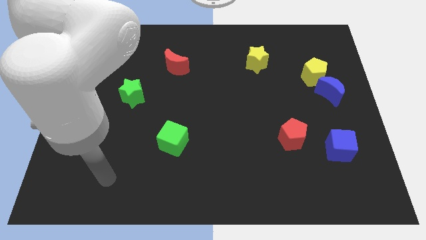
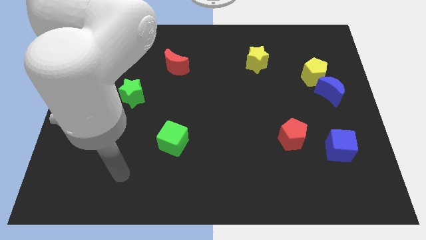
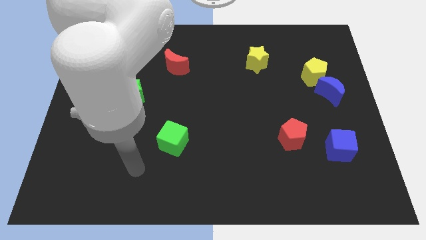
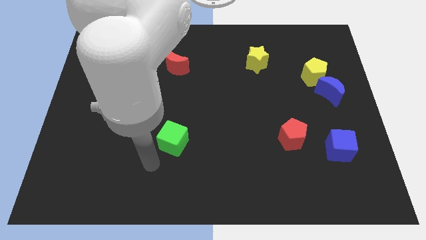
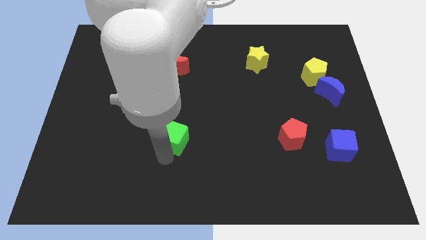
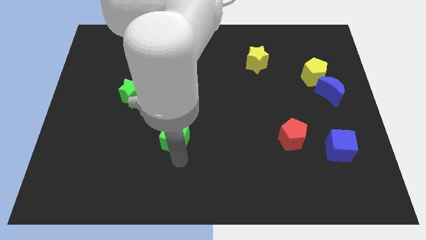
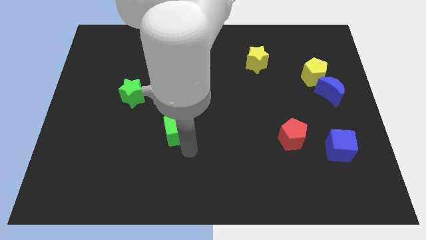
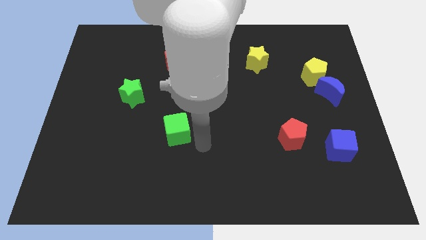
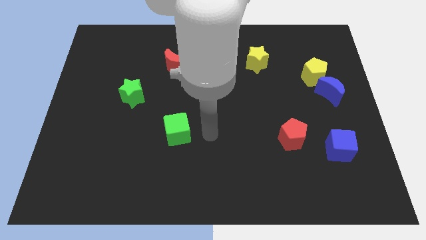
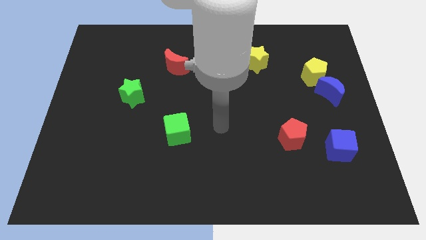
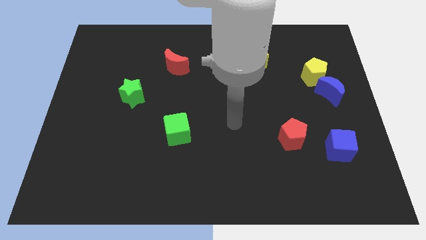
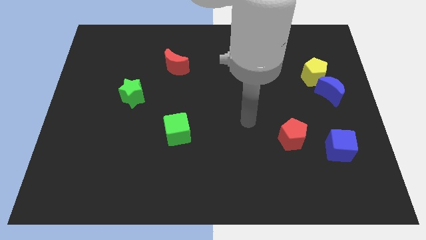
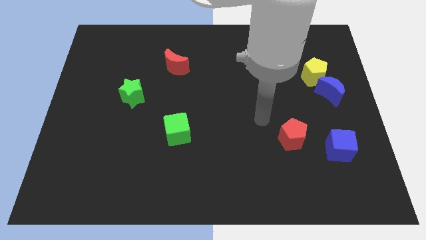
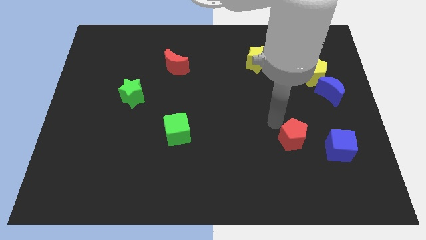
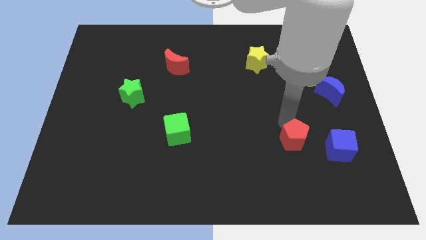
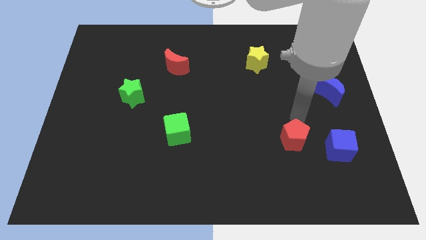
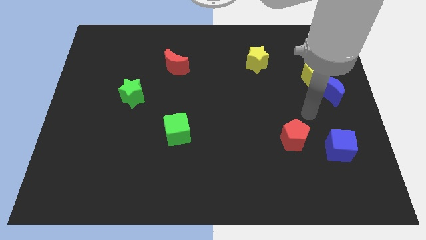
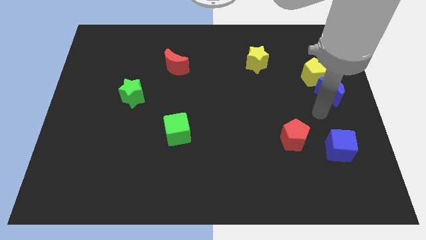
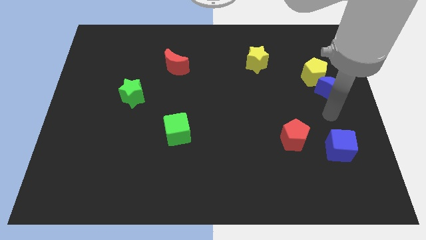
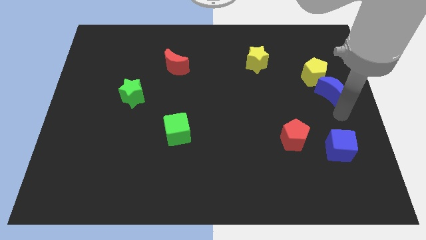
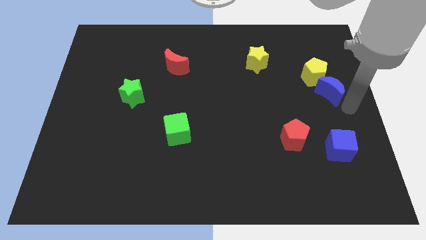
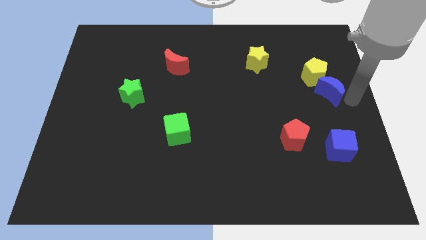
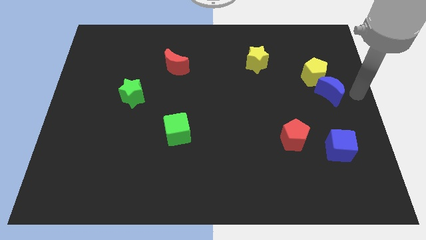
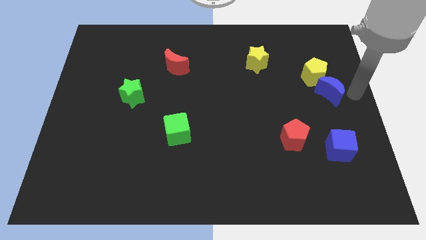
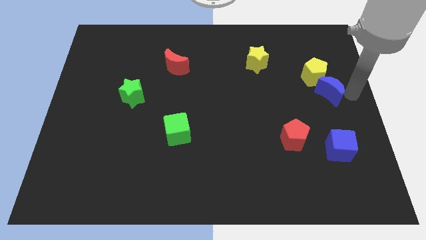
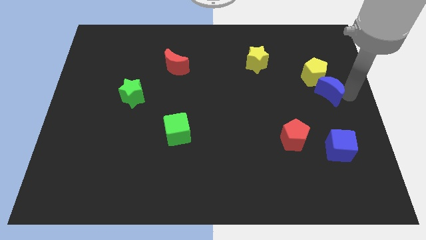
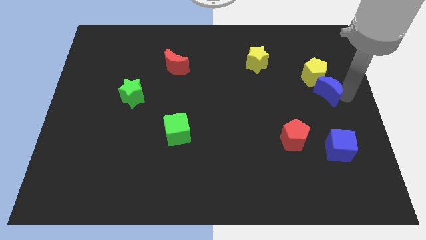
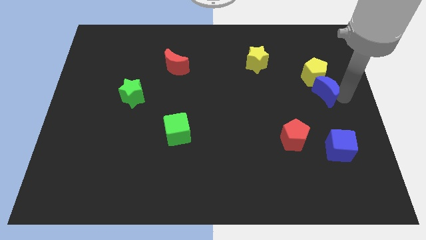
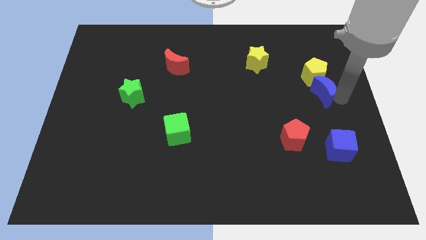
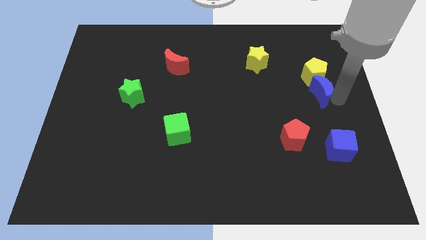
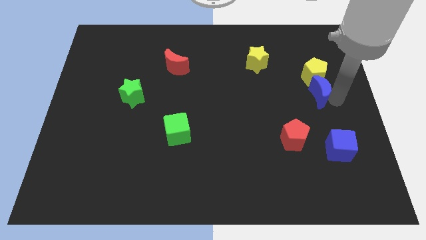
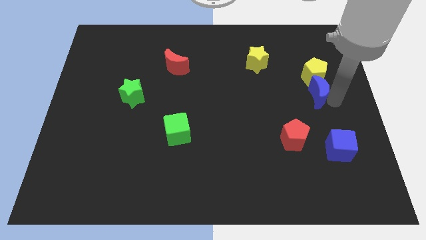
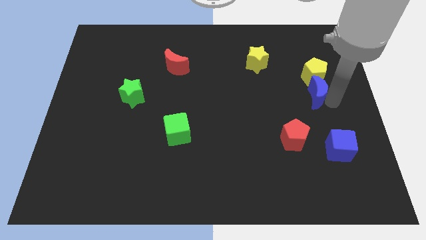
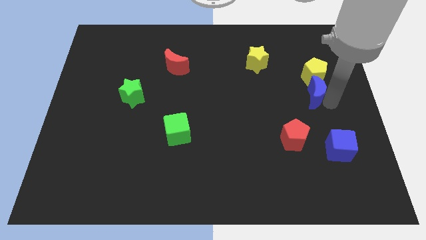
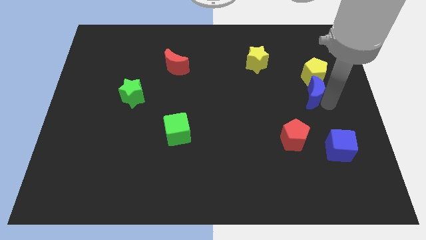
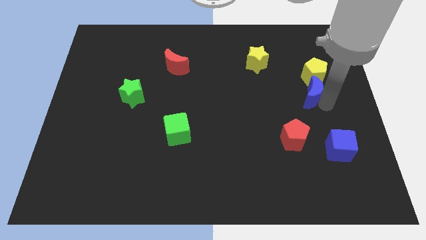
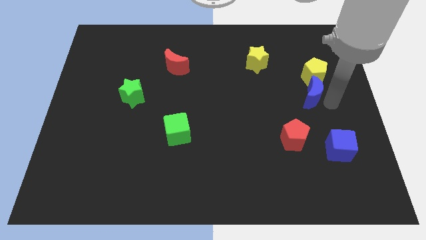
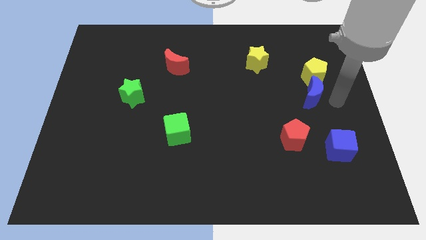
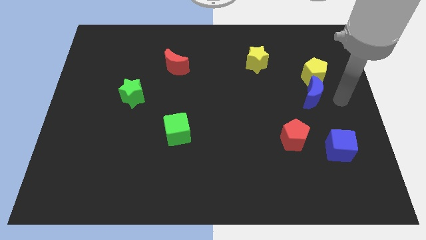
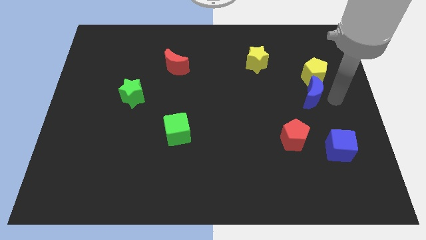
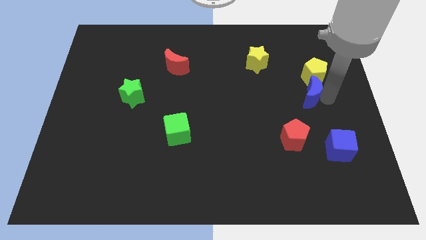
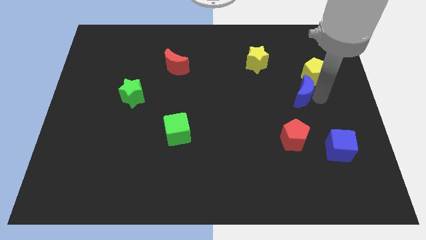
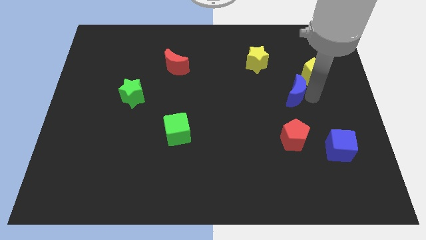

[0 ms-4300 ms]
slightly slide the blue moon left

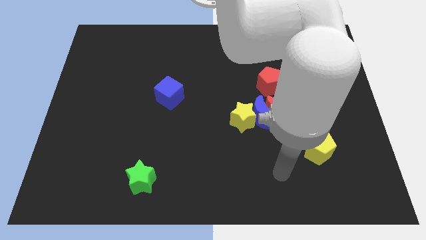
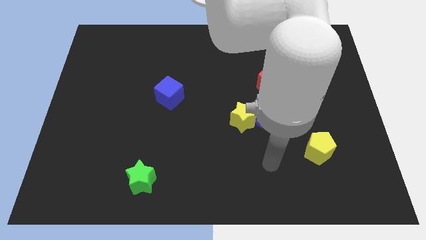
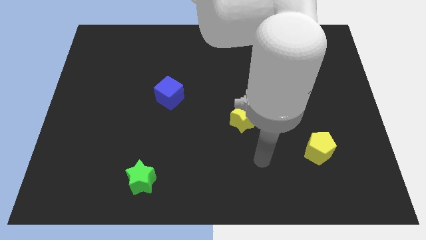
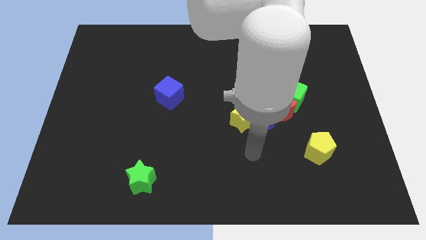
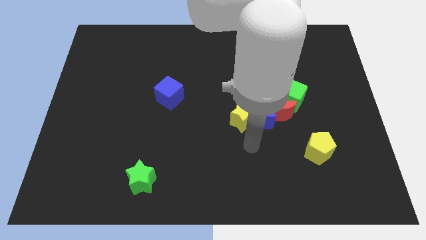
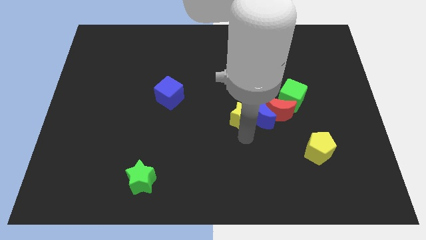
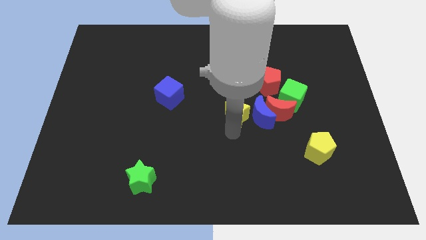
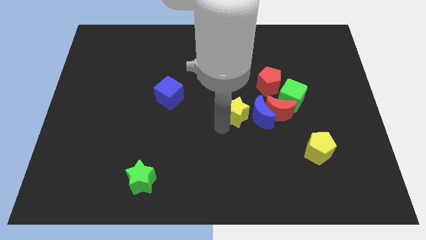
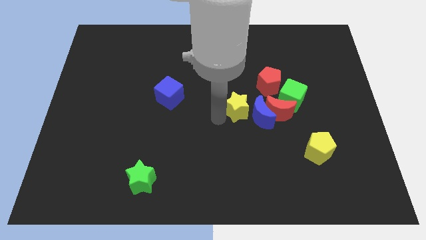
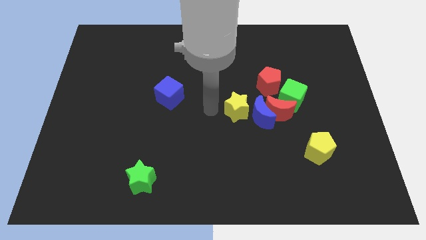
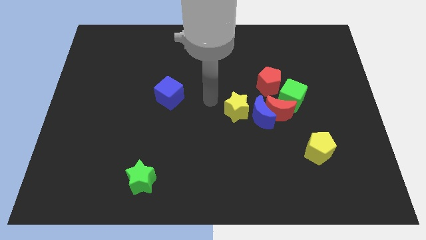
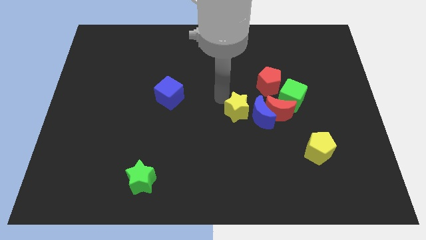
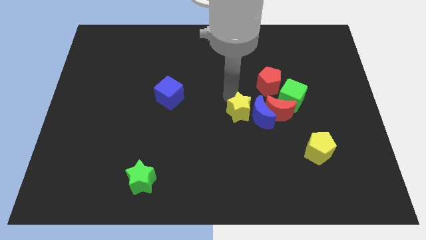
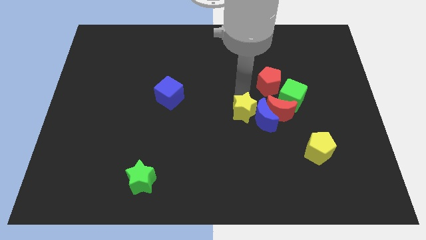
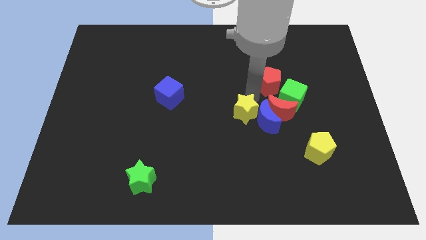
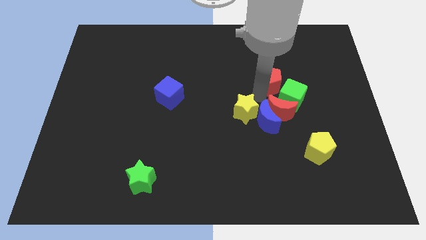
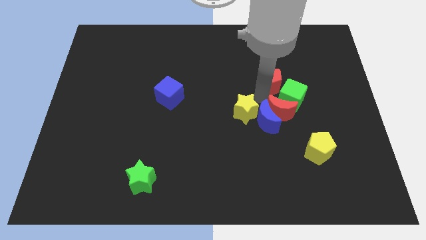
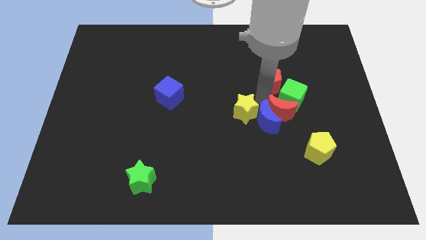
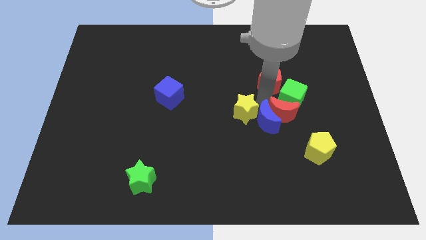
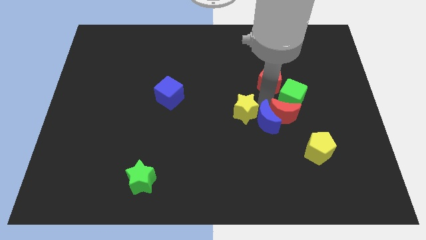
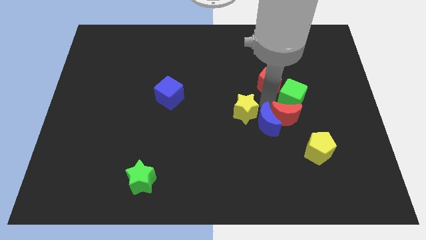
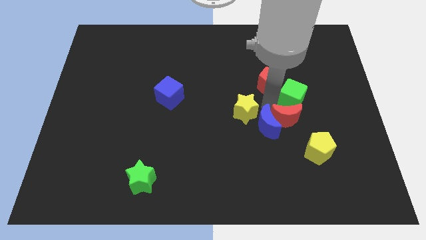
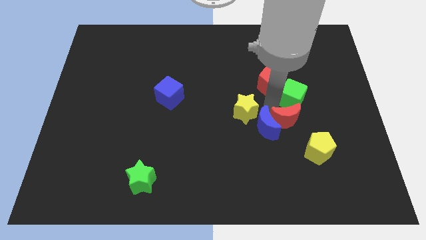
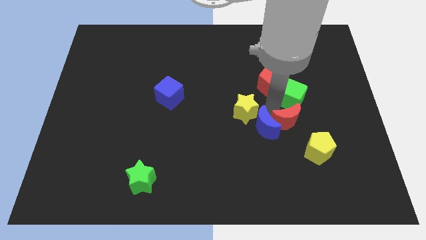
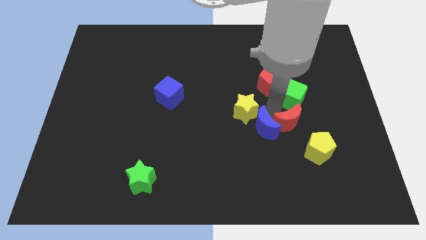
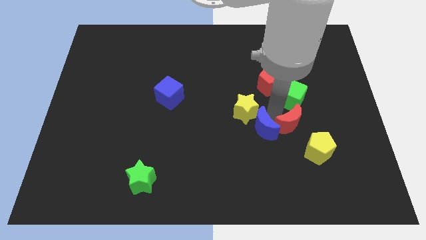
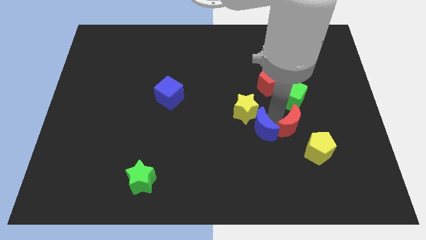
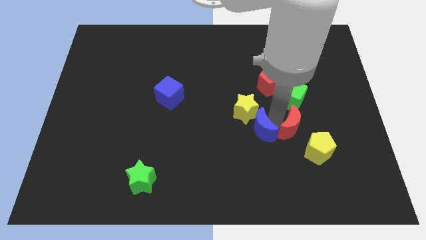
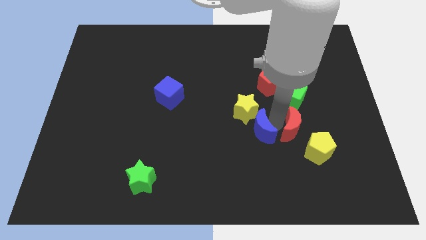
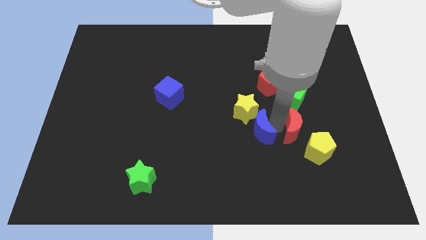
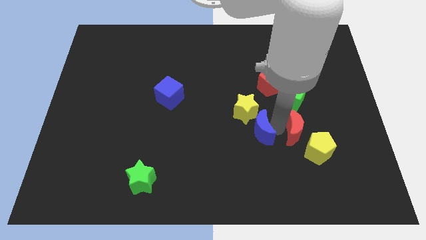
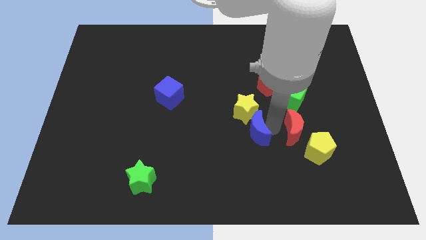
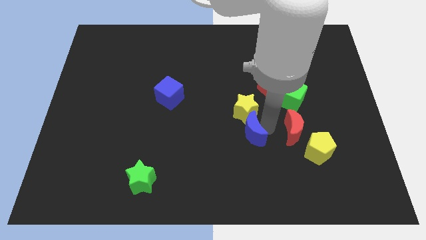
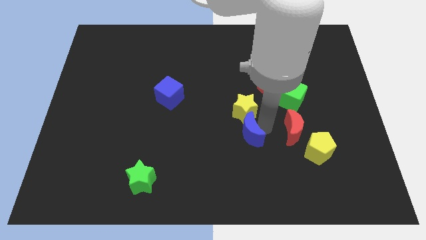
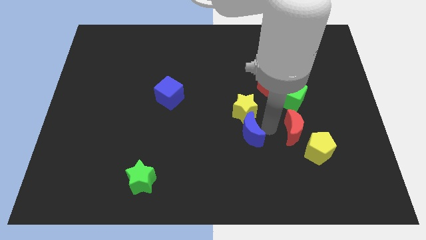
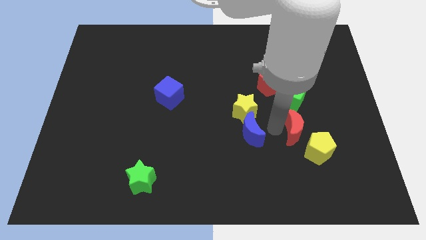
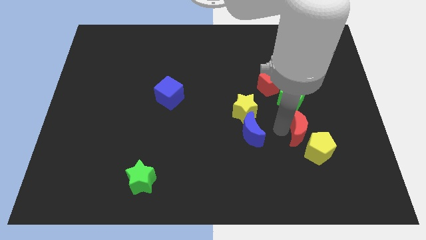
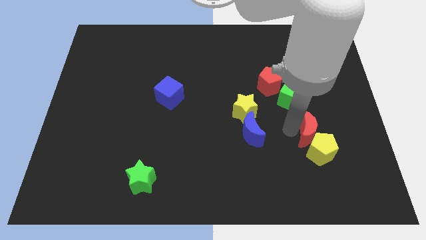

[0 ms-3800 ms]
slide the red moon diagonally down and right slightly

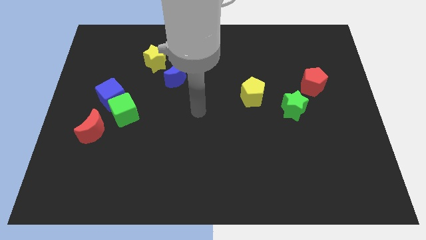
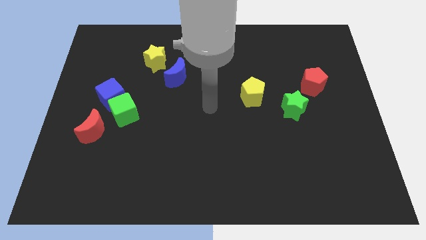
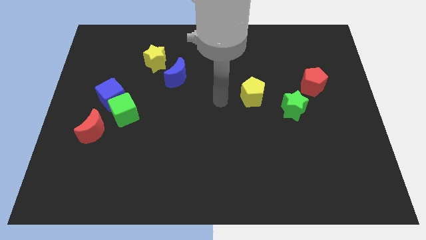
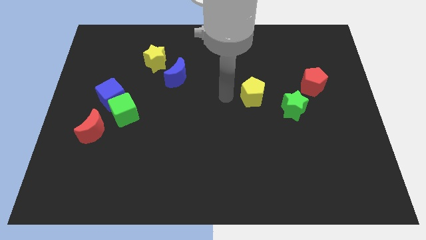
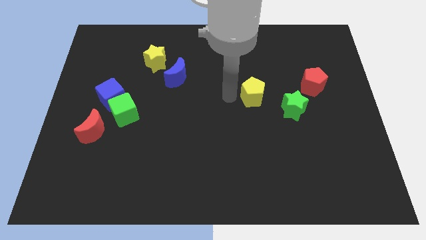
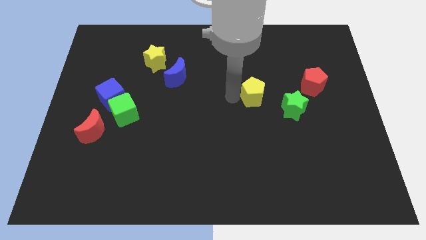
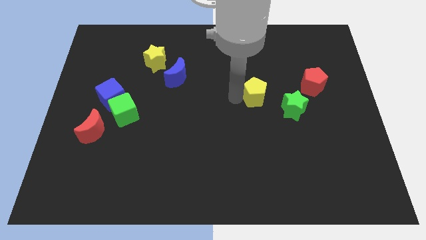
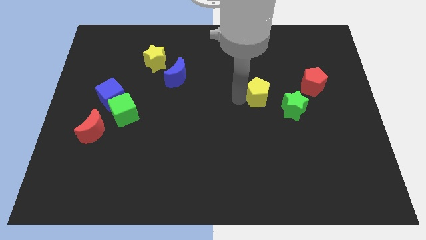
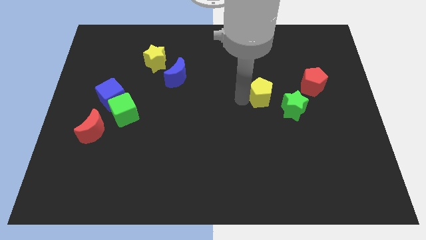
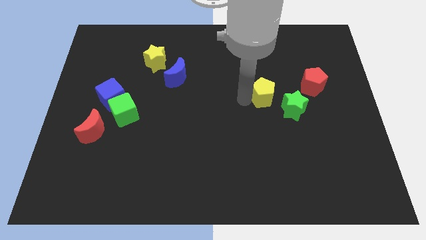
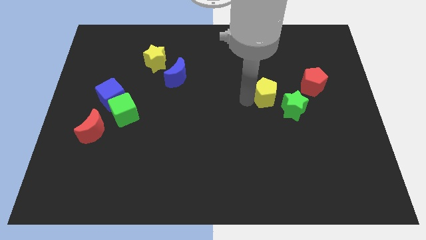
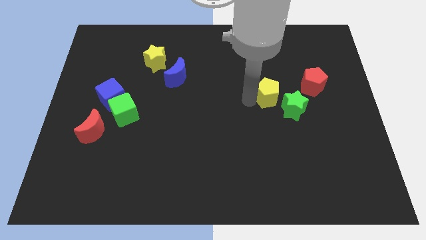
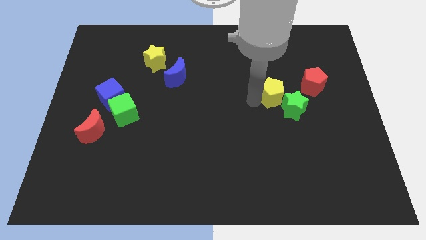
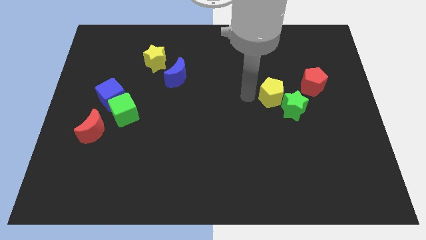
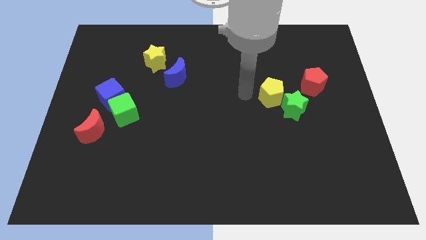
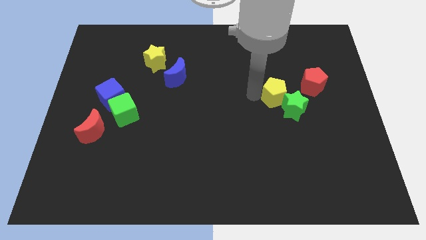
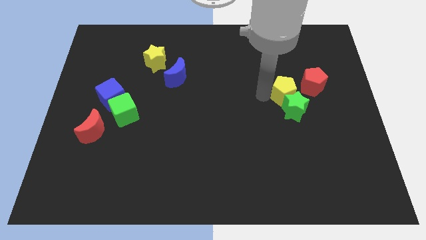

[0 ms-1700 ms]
slightly push the yellow pentagon right
